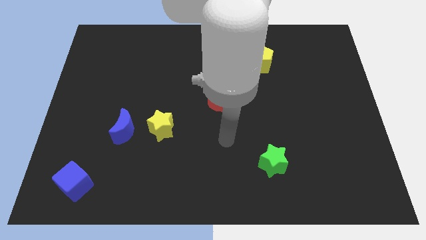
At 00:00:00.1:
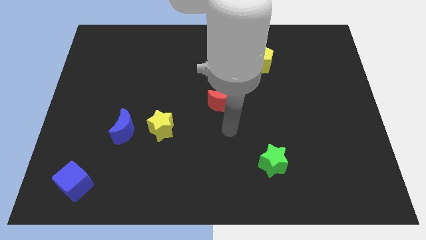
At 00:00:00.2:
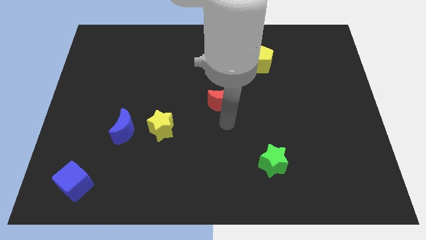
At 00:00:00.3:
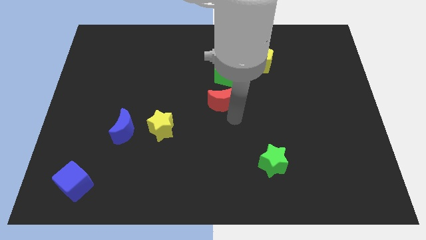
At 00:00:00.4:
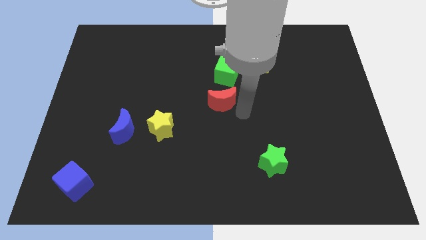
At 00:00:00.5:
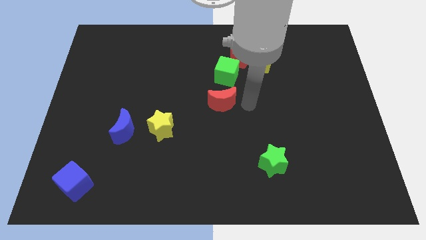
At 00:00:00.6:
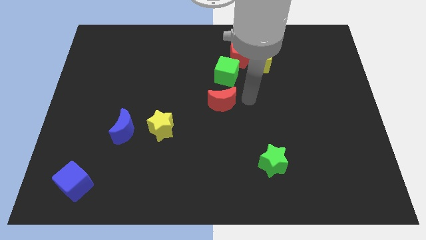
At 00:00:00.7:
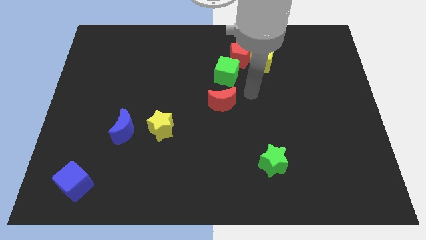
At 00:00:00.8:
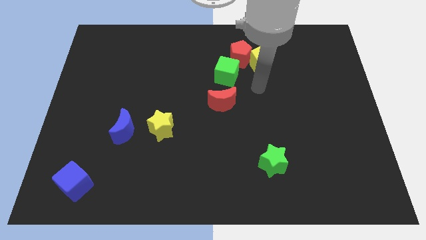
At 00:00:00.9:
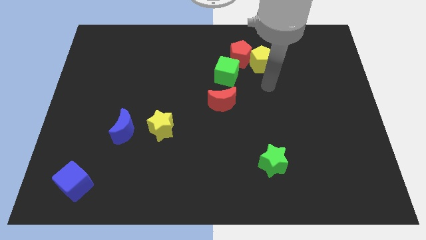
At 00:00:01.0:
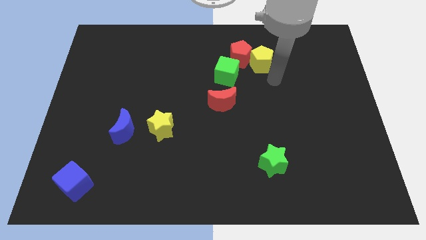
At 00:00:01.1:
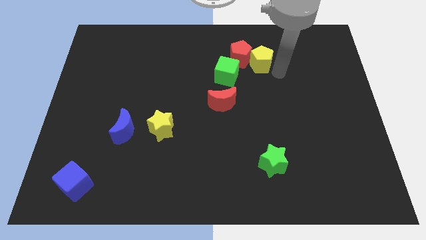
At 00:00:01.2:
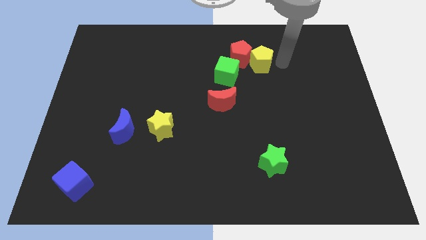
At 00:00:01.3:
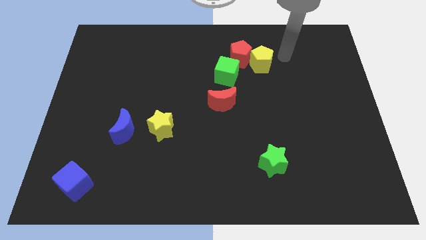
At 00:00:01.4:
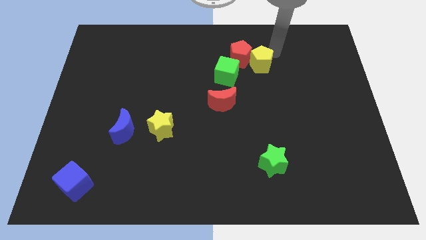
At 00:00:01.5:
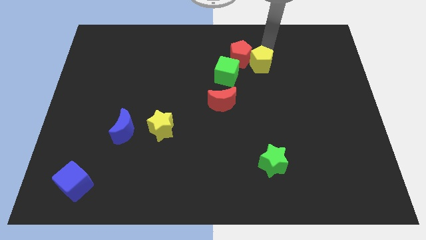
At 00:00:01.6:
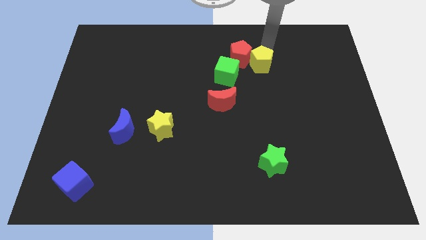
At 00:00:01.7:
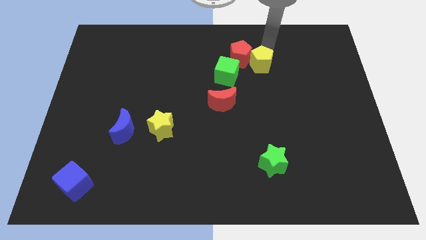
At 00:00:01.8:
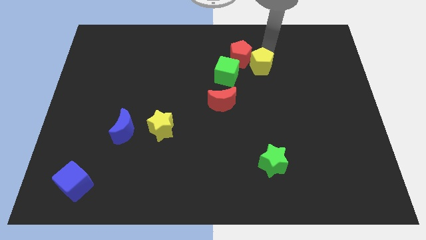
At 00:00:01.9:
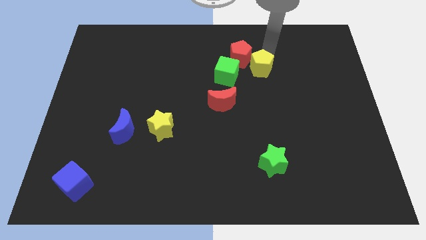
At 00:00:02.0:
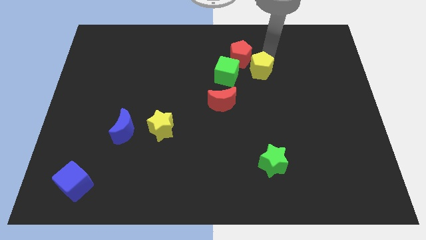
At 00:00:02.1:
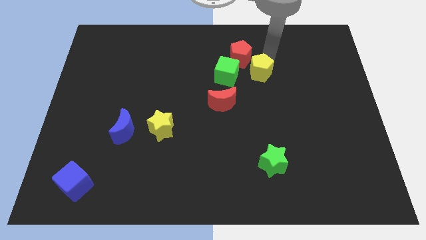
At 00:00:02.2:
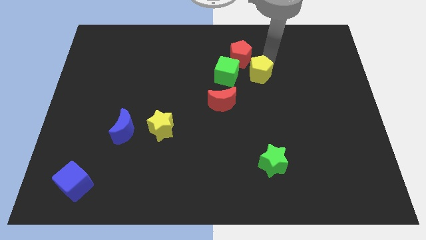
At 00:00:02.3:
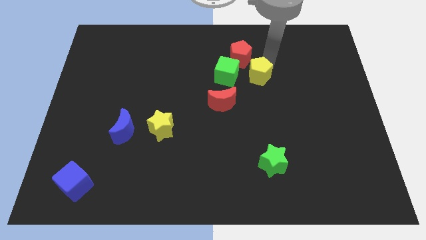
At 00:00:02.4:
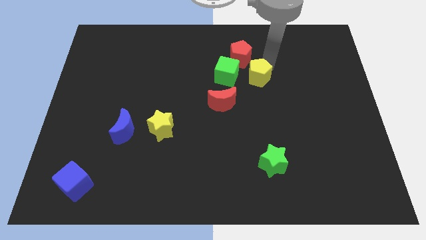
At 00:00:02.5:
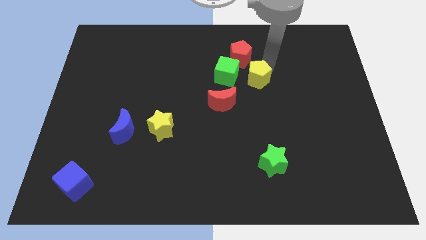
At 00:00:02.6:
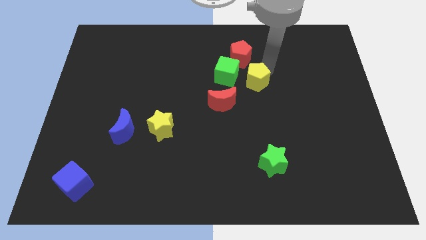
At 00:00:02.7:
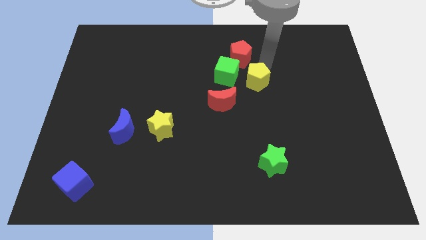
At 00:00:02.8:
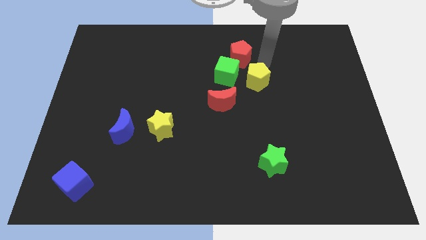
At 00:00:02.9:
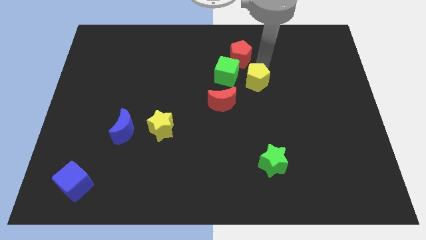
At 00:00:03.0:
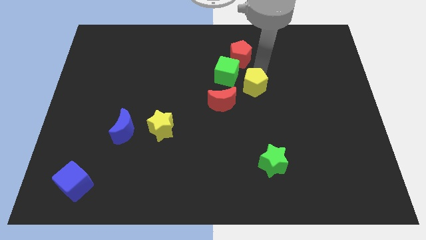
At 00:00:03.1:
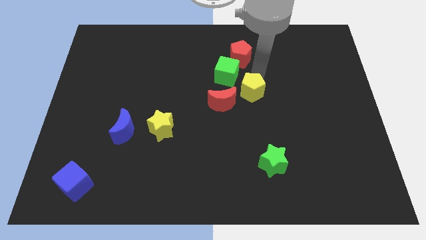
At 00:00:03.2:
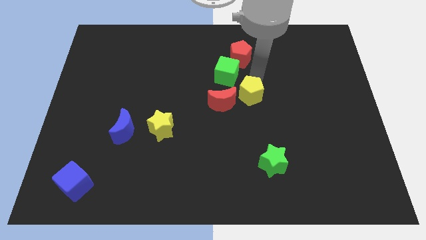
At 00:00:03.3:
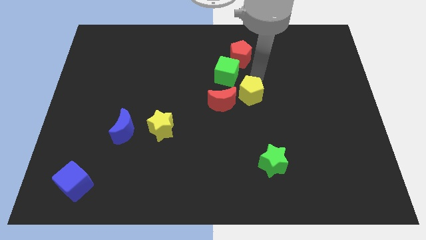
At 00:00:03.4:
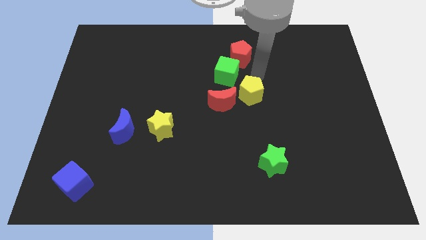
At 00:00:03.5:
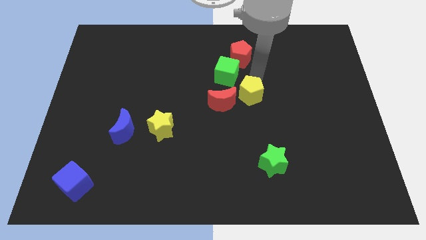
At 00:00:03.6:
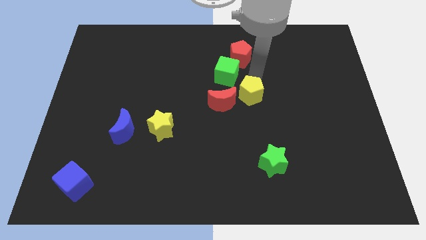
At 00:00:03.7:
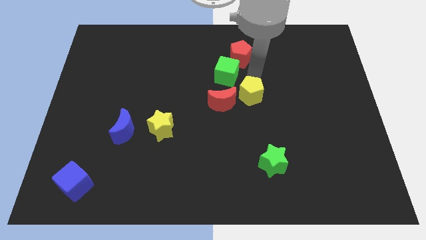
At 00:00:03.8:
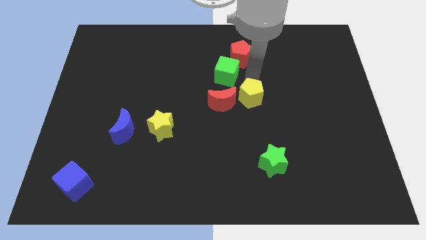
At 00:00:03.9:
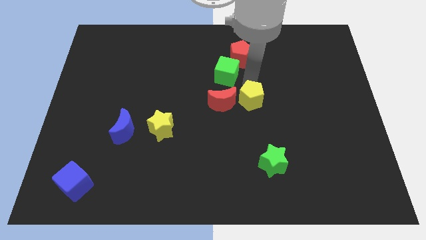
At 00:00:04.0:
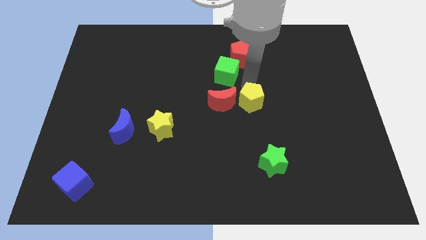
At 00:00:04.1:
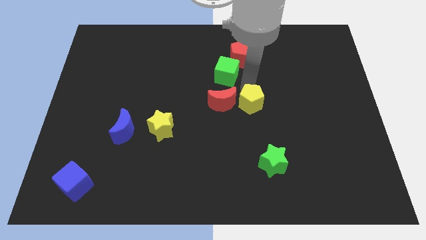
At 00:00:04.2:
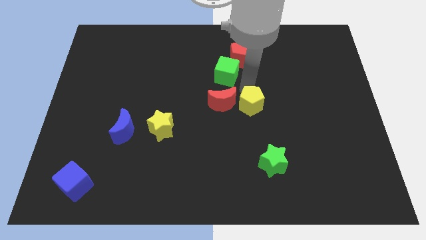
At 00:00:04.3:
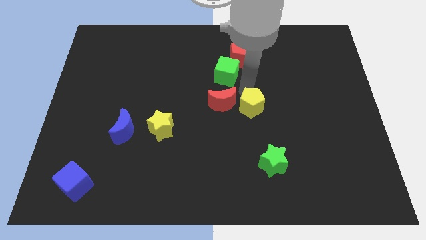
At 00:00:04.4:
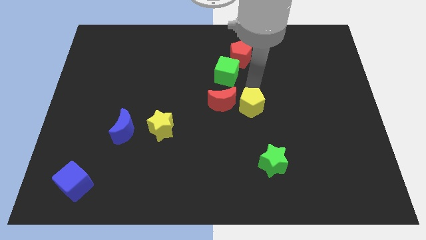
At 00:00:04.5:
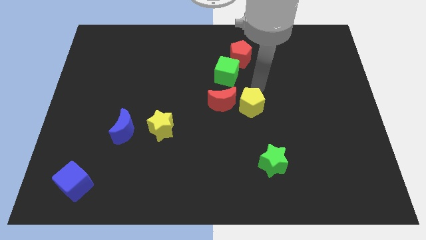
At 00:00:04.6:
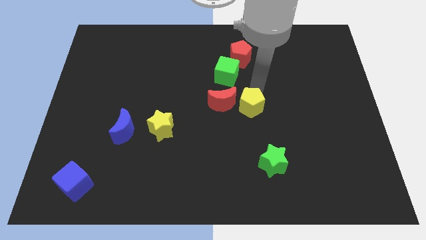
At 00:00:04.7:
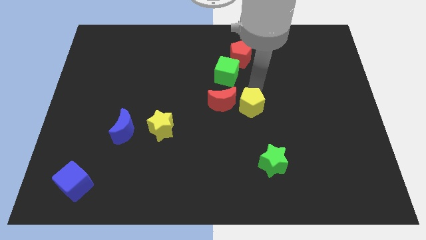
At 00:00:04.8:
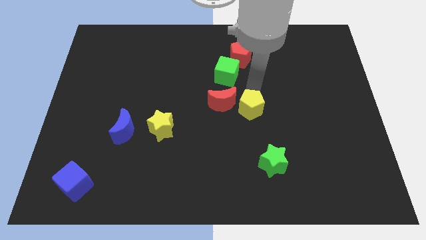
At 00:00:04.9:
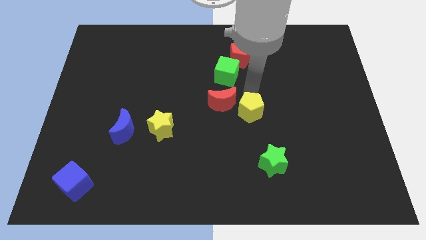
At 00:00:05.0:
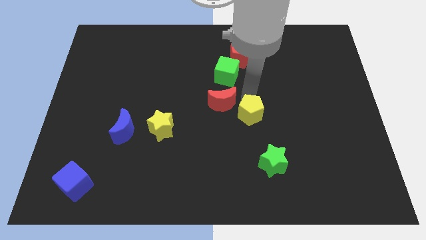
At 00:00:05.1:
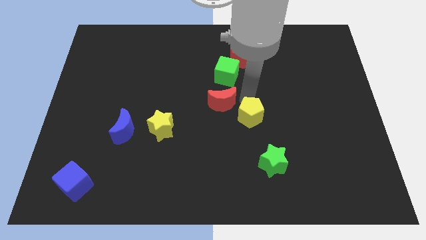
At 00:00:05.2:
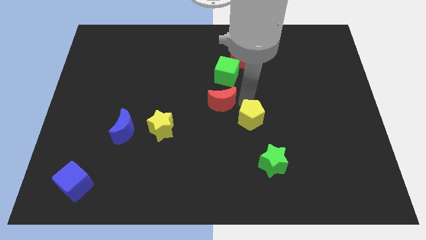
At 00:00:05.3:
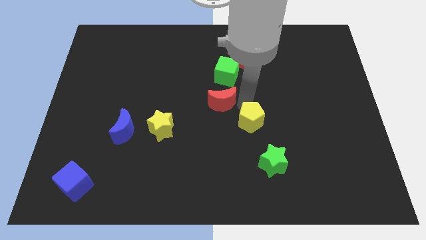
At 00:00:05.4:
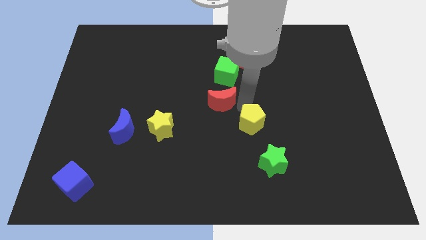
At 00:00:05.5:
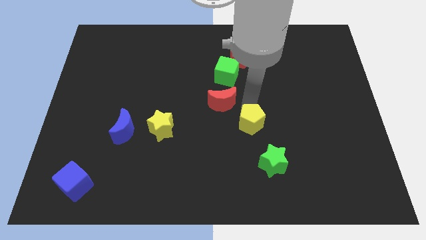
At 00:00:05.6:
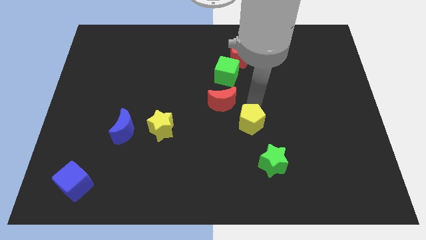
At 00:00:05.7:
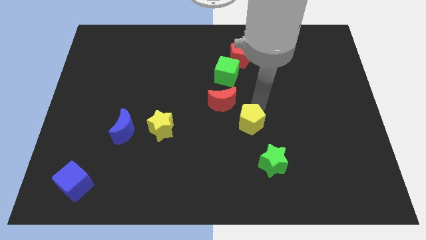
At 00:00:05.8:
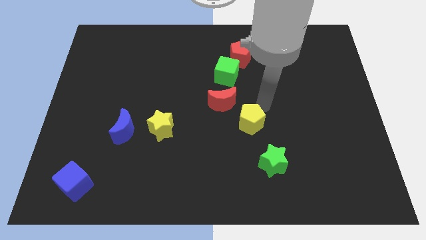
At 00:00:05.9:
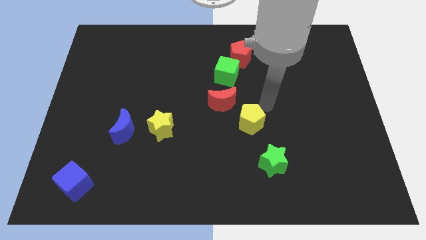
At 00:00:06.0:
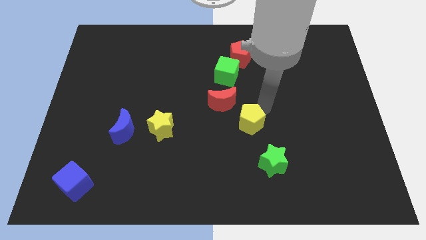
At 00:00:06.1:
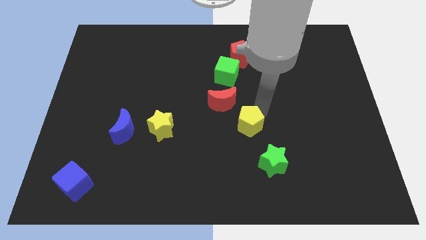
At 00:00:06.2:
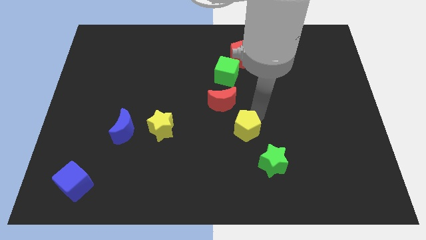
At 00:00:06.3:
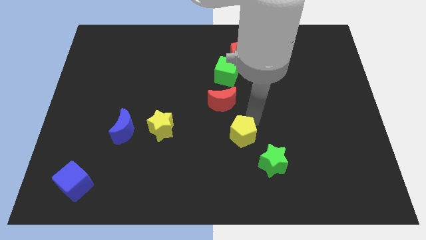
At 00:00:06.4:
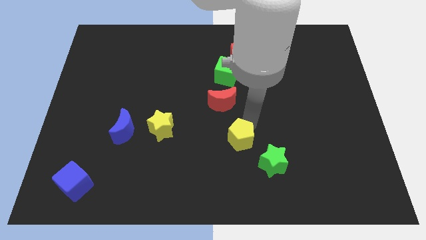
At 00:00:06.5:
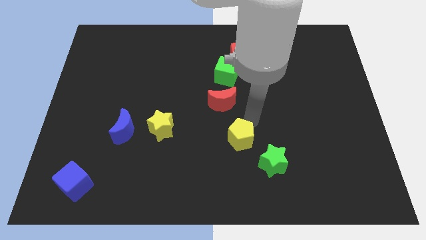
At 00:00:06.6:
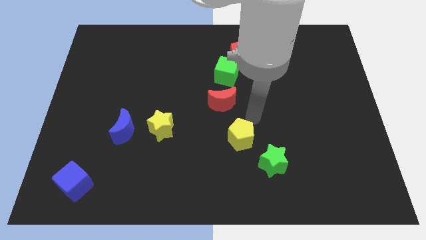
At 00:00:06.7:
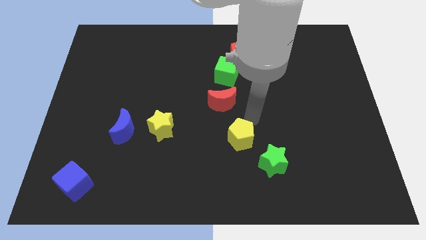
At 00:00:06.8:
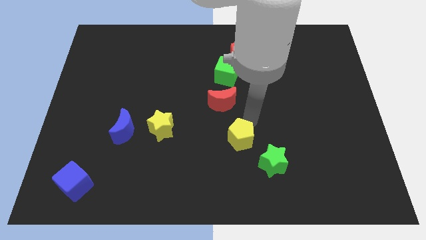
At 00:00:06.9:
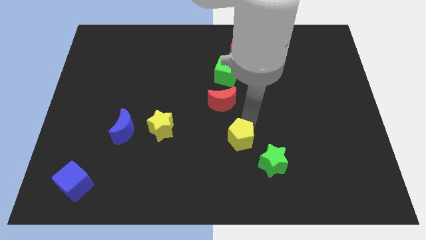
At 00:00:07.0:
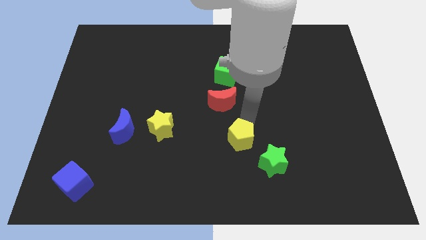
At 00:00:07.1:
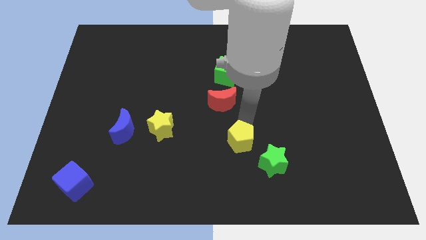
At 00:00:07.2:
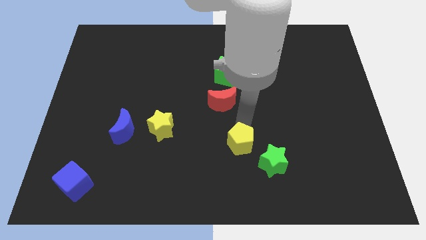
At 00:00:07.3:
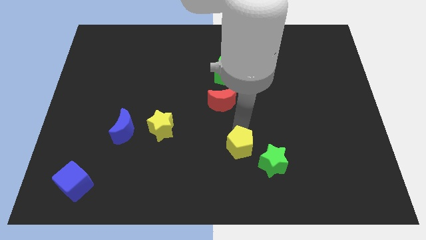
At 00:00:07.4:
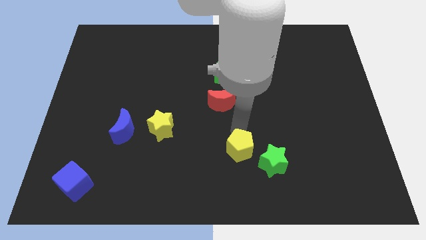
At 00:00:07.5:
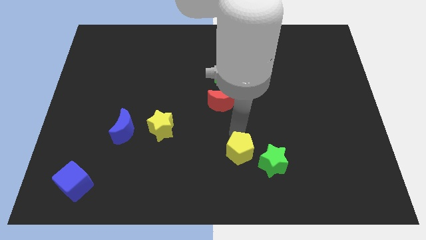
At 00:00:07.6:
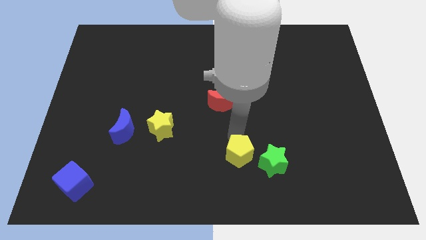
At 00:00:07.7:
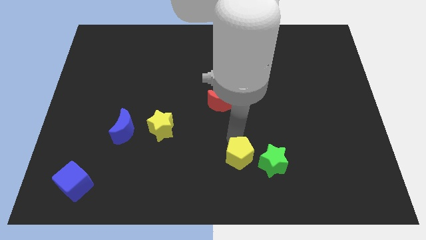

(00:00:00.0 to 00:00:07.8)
slide the yellow pentagon to the bottom
